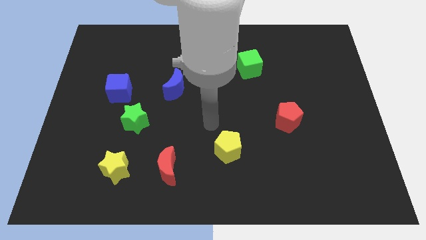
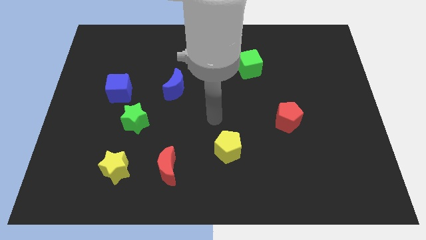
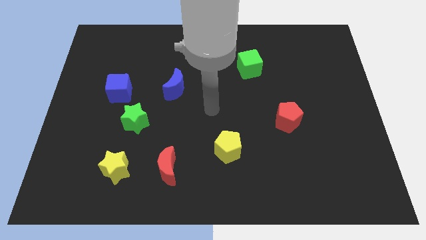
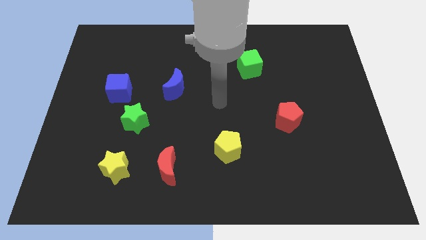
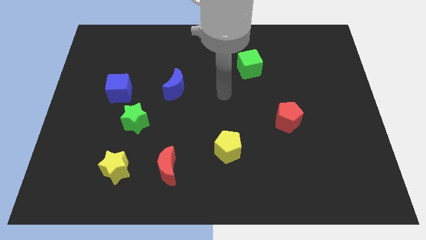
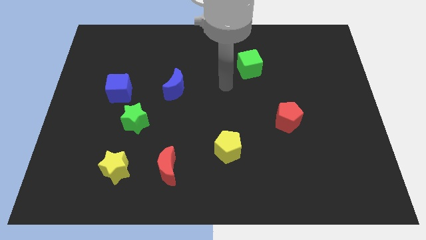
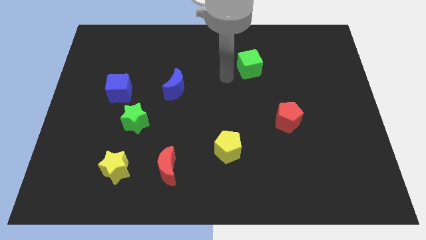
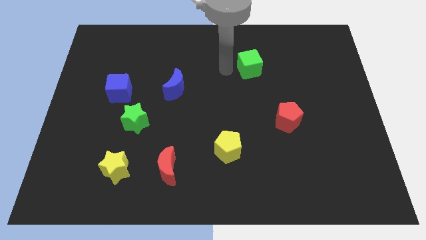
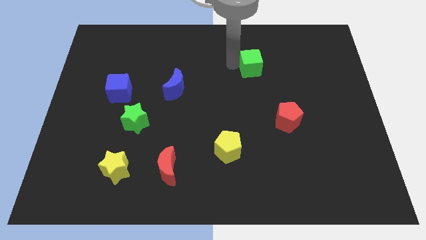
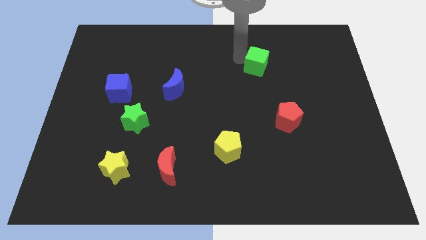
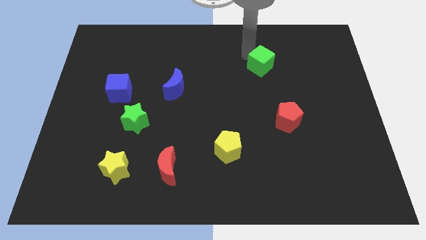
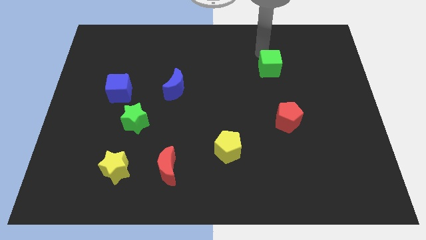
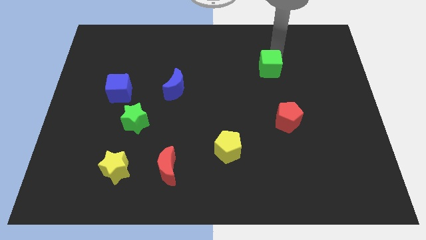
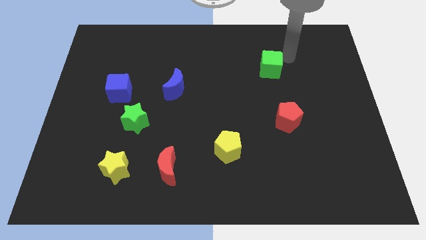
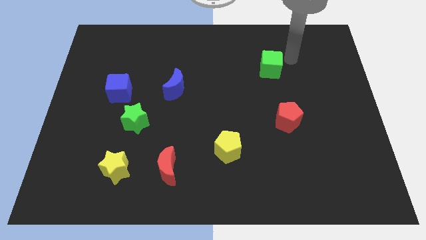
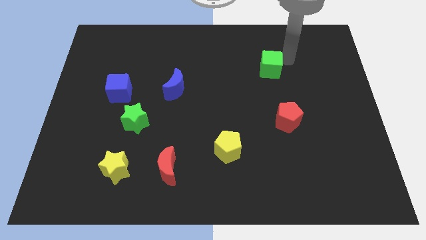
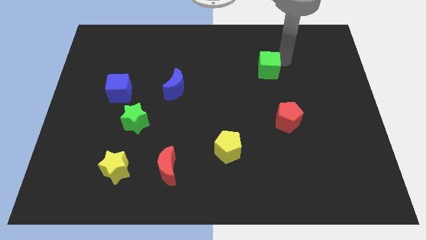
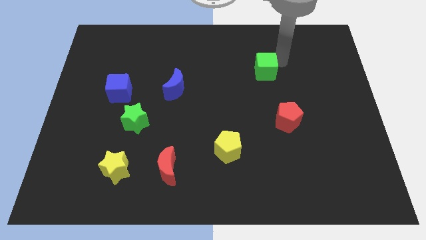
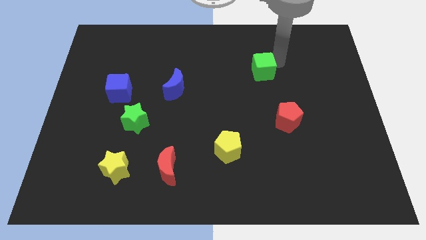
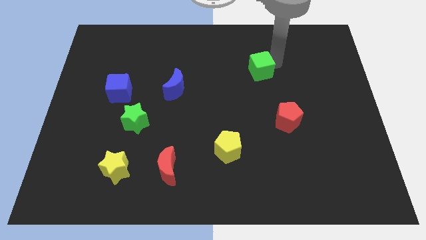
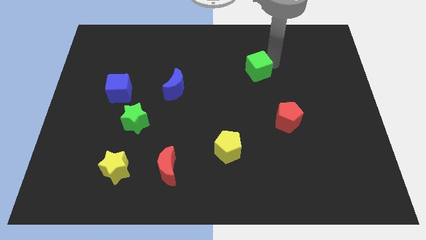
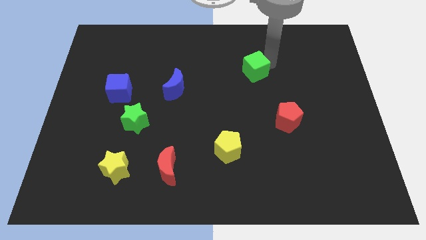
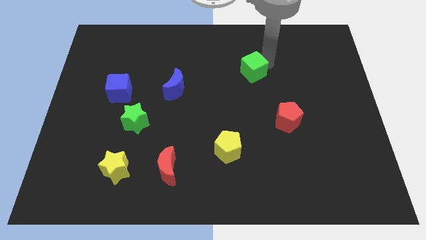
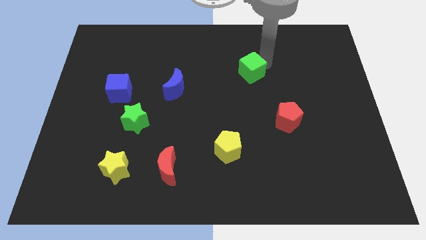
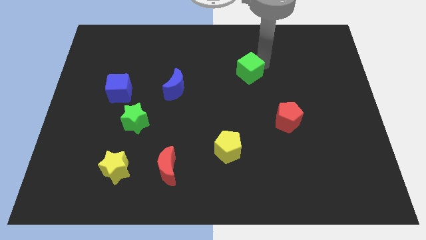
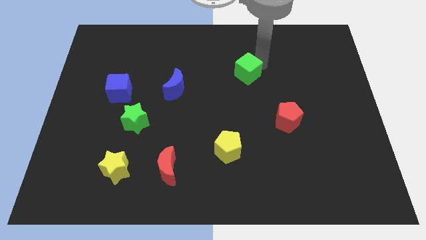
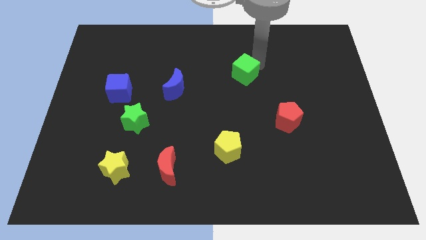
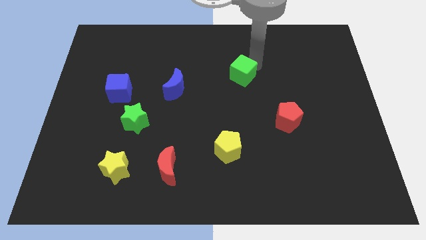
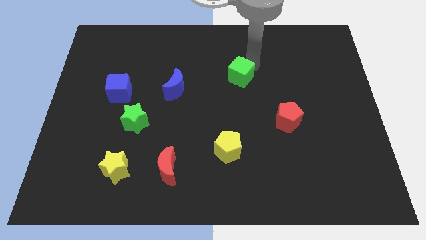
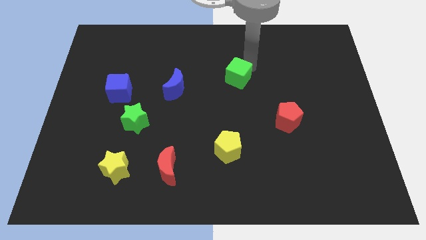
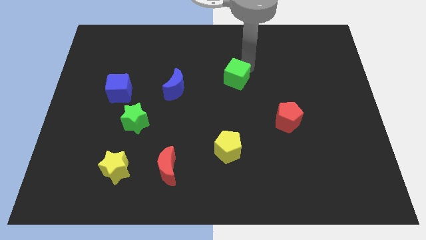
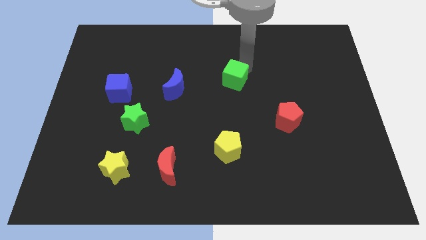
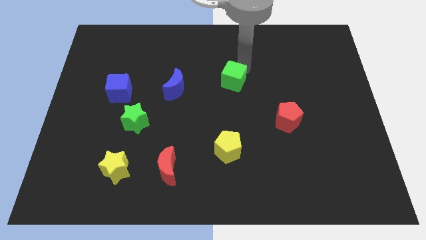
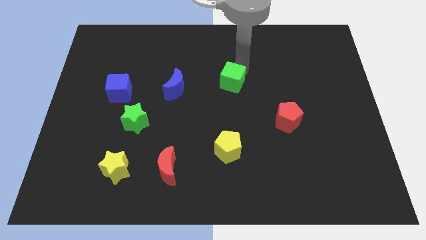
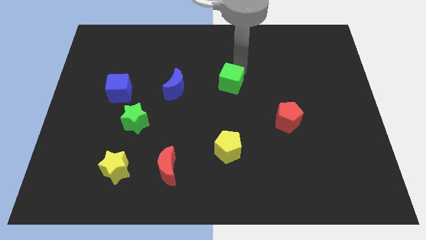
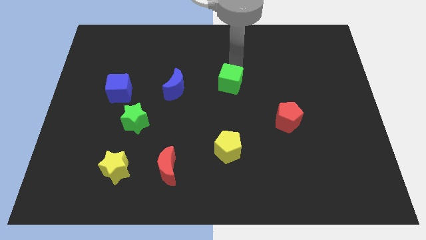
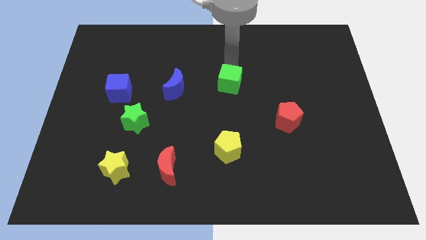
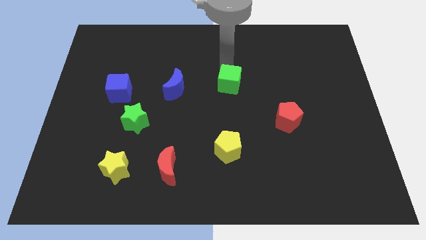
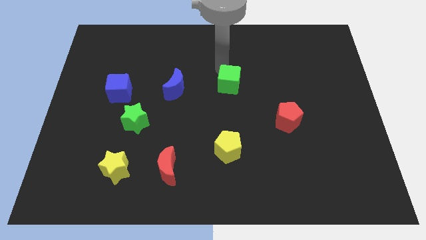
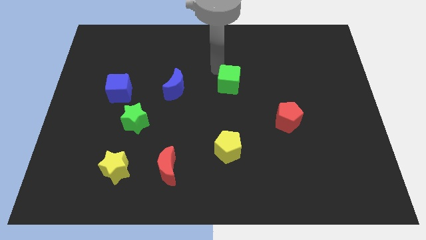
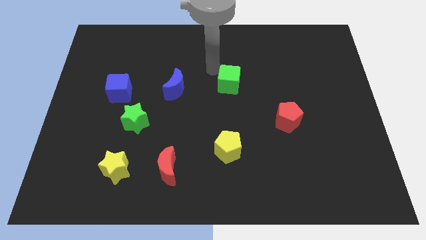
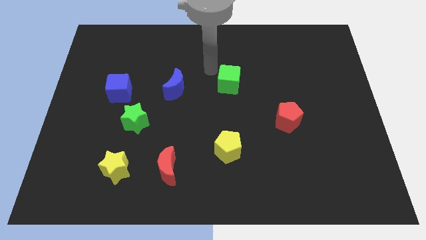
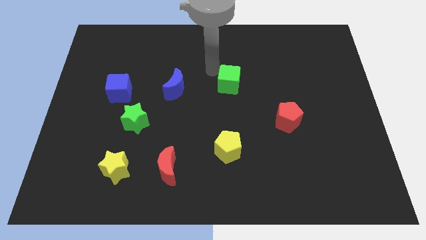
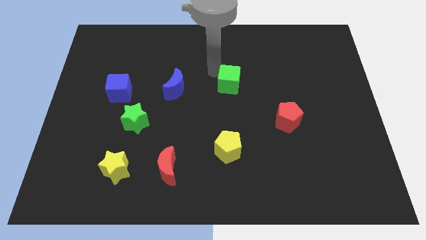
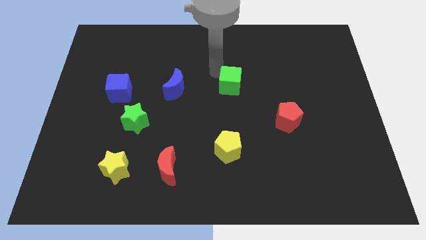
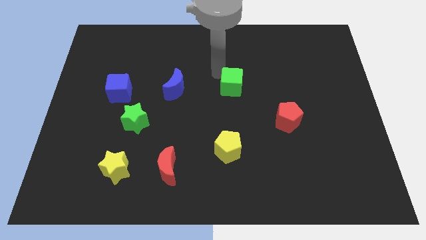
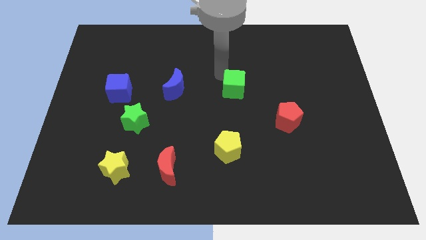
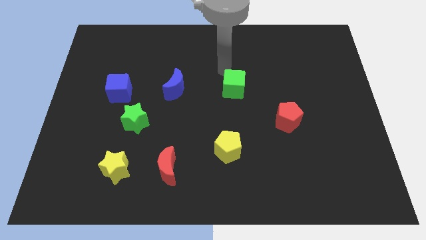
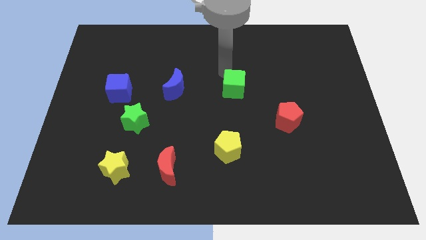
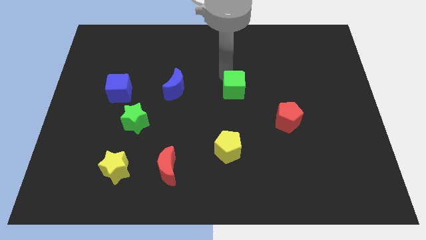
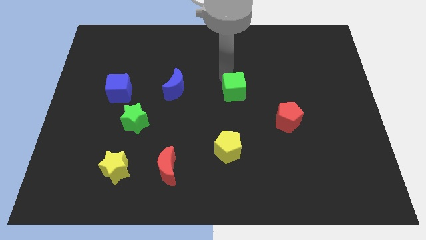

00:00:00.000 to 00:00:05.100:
slide the green cube down a little bit

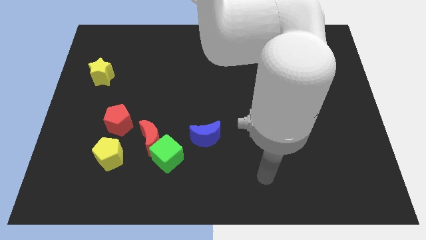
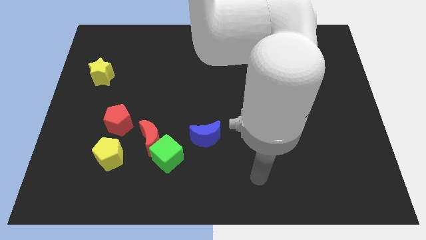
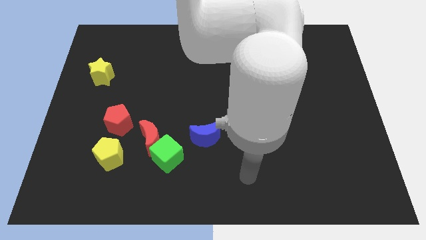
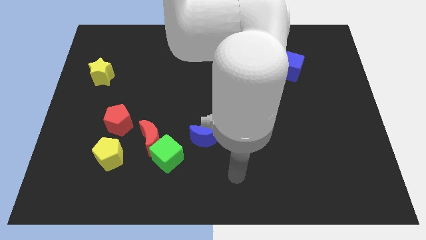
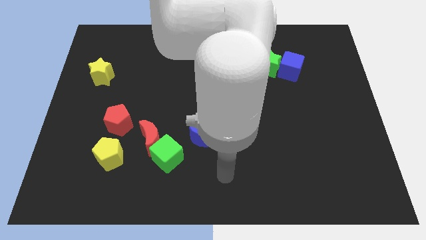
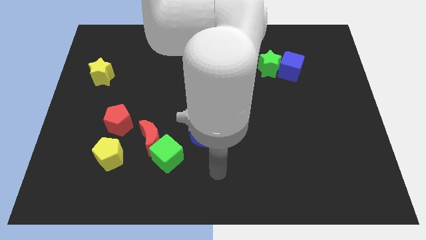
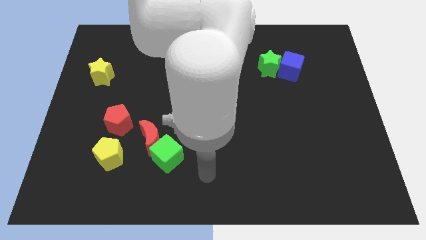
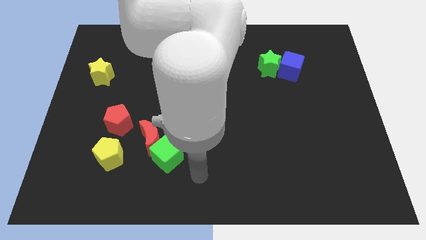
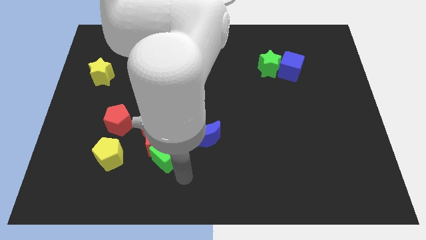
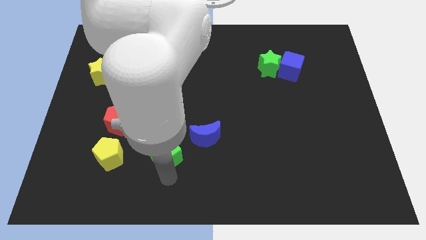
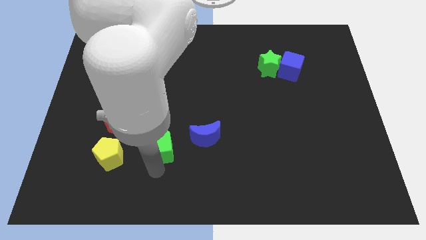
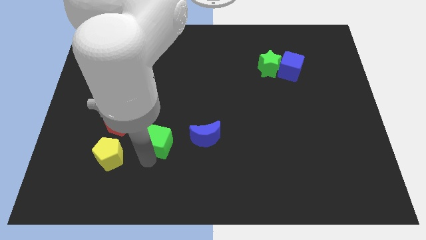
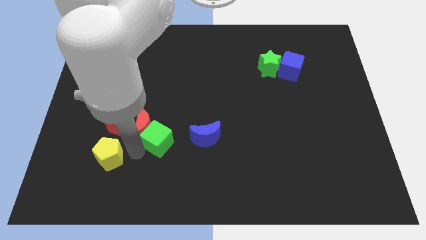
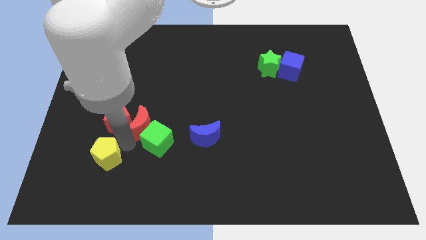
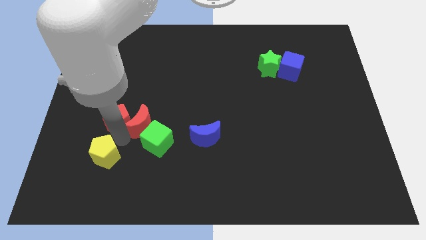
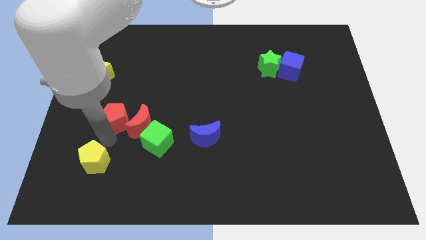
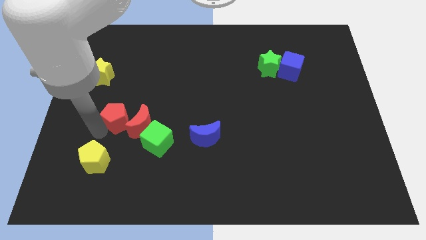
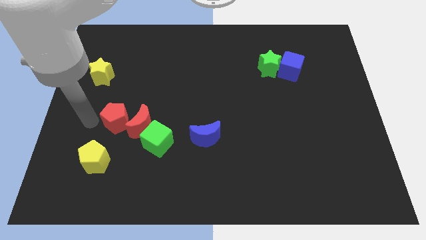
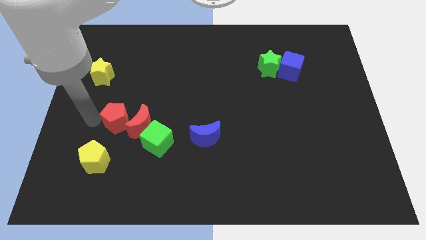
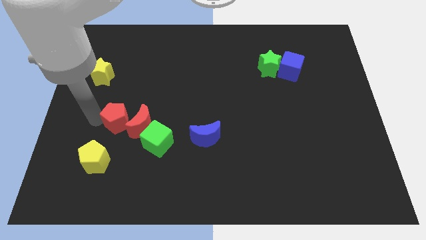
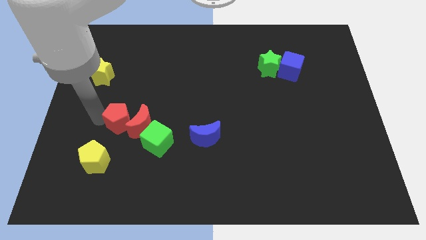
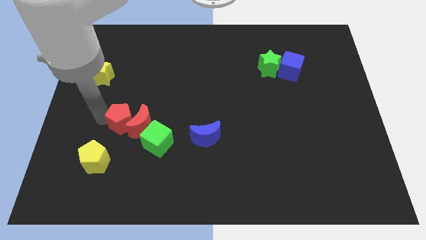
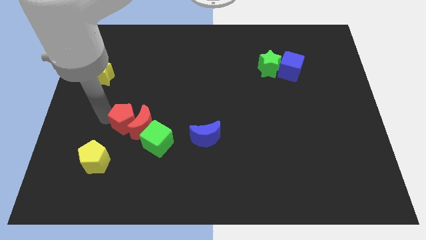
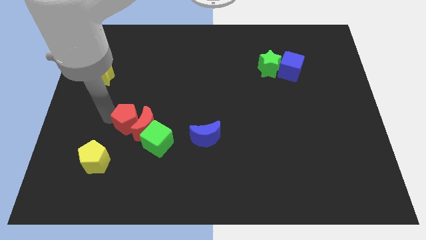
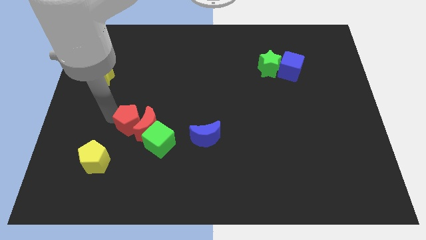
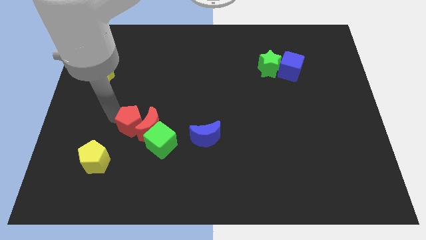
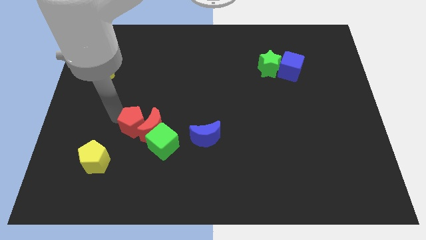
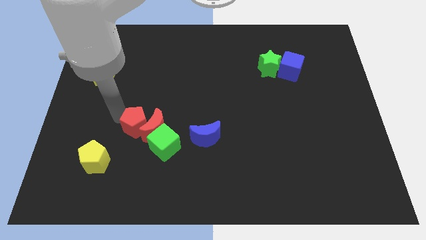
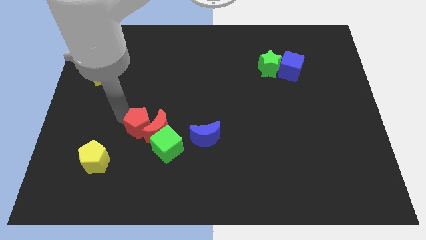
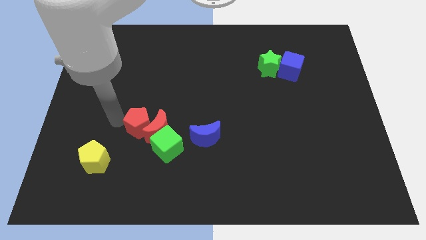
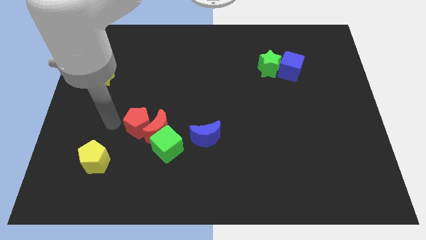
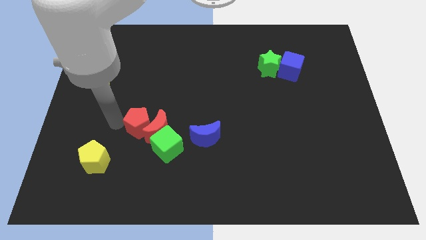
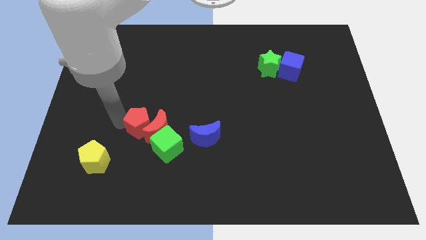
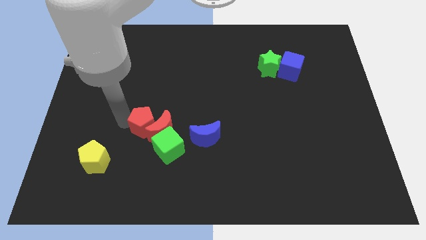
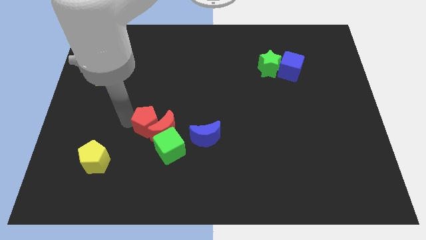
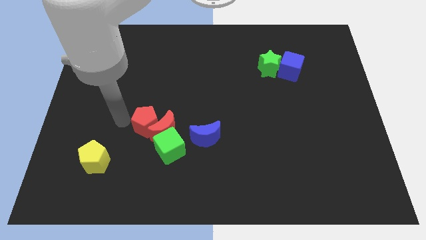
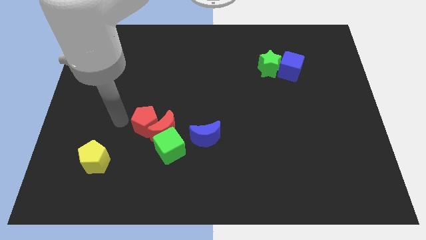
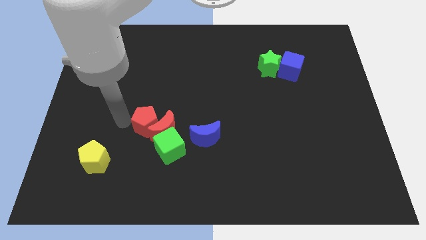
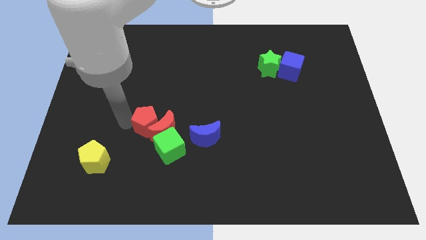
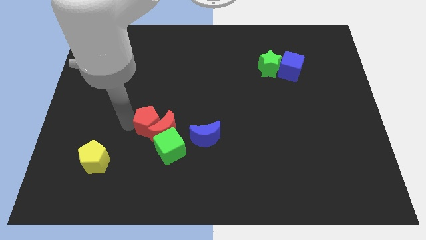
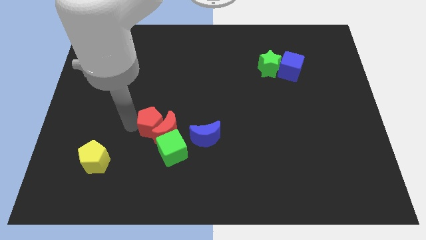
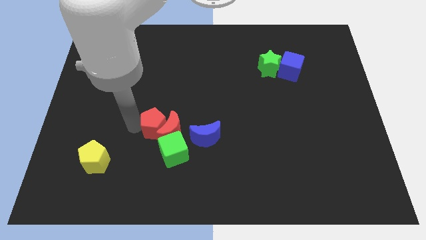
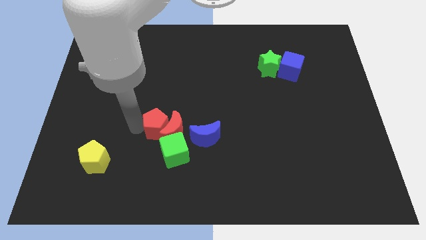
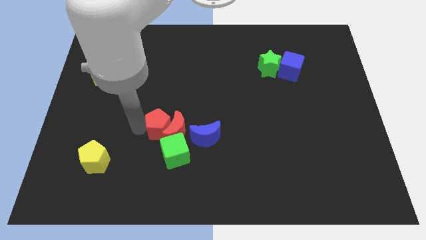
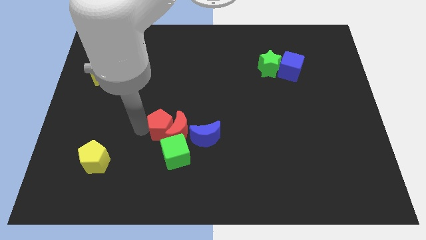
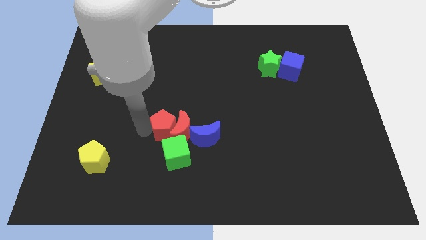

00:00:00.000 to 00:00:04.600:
slightly push the red pentagon down and right diagonally
